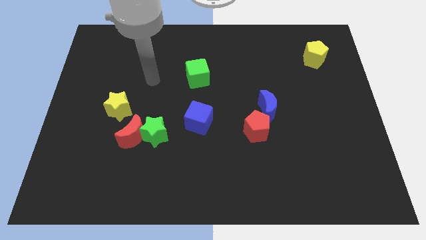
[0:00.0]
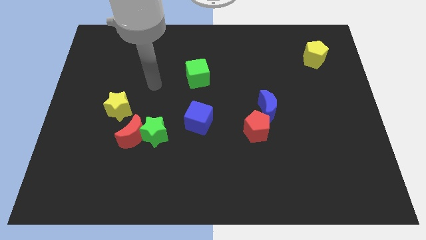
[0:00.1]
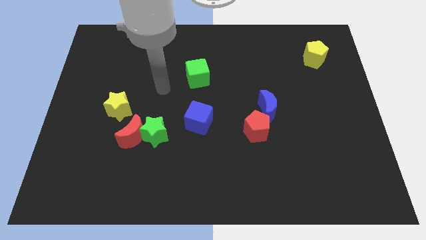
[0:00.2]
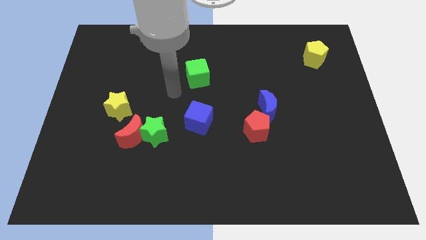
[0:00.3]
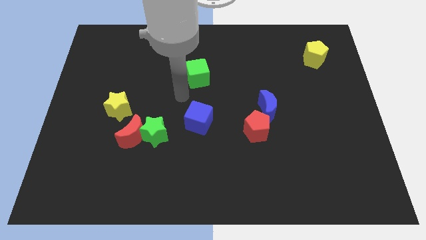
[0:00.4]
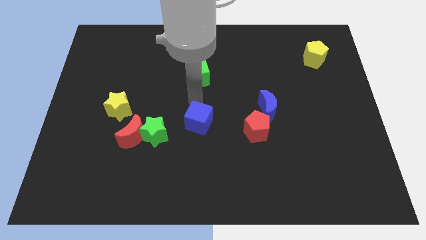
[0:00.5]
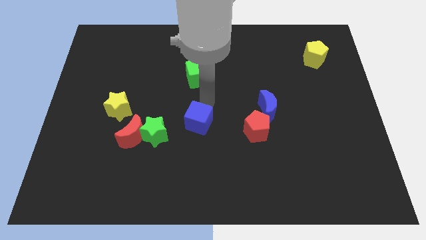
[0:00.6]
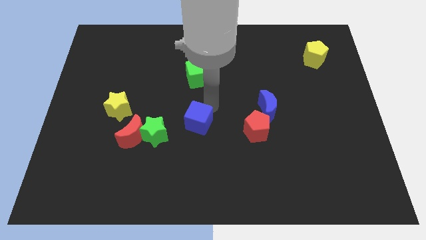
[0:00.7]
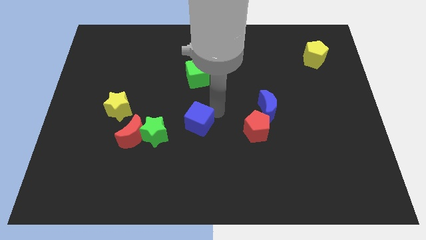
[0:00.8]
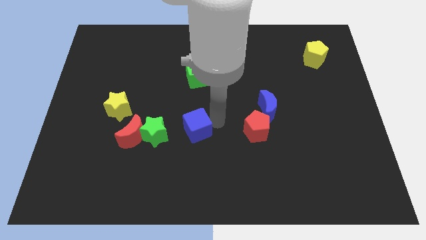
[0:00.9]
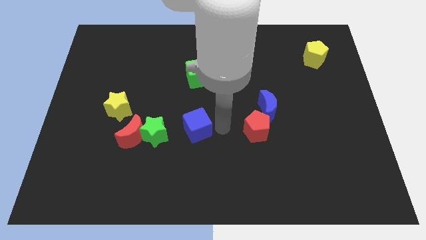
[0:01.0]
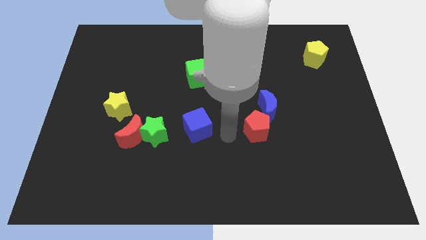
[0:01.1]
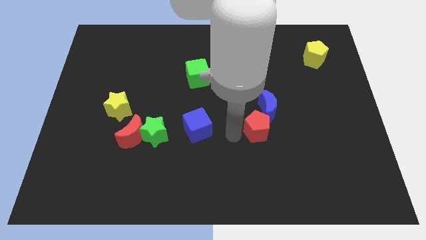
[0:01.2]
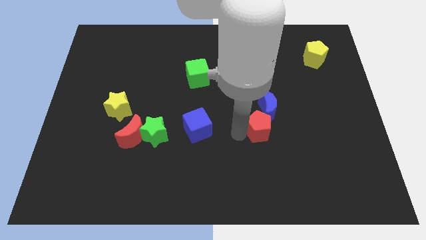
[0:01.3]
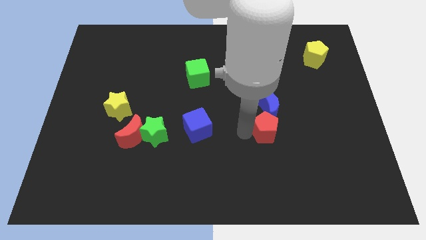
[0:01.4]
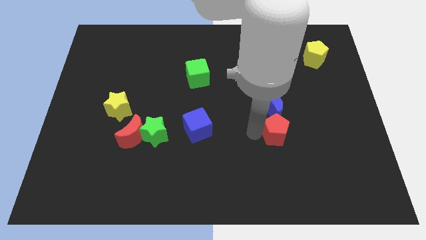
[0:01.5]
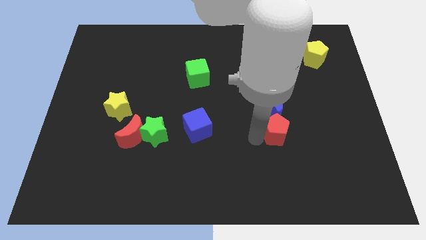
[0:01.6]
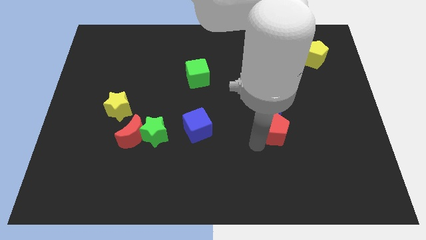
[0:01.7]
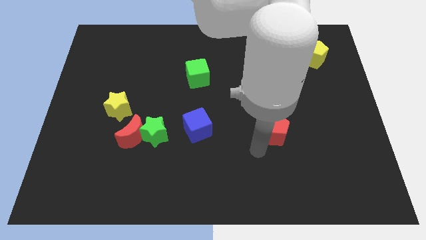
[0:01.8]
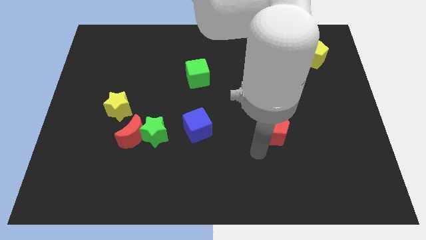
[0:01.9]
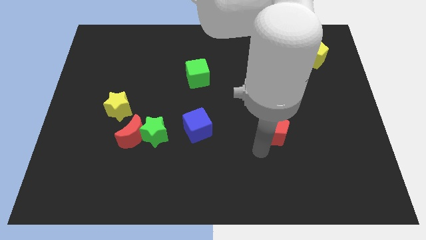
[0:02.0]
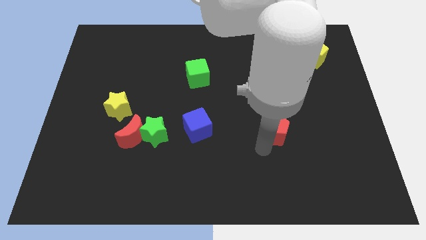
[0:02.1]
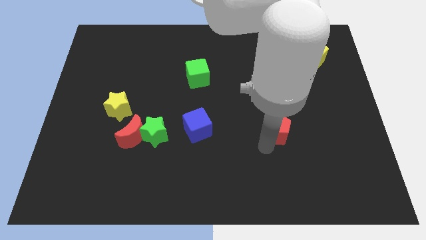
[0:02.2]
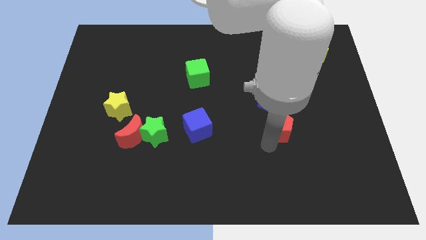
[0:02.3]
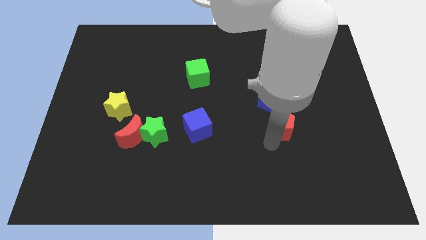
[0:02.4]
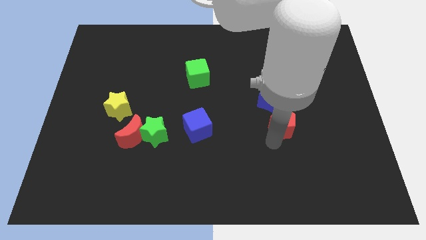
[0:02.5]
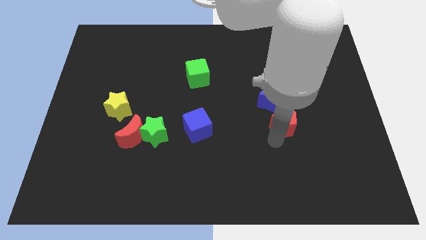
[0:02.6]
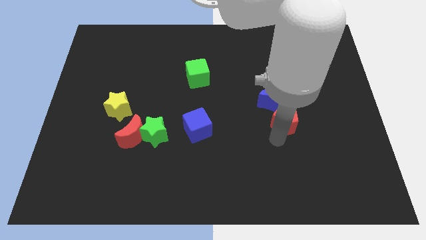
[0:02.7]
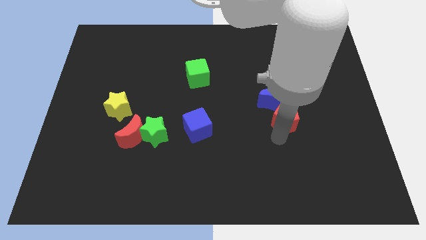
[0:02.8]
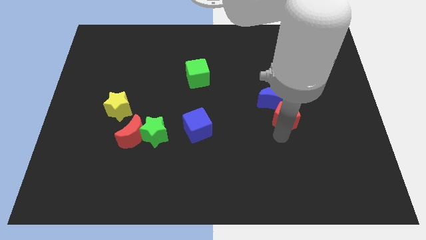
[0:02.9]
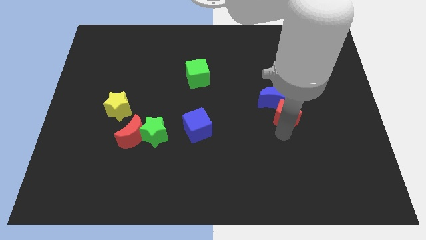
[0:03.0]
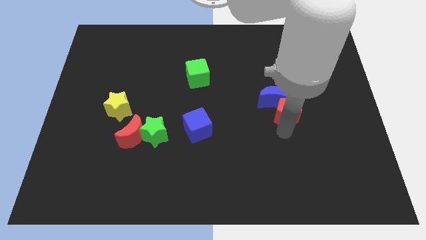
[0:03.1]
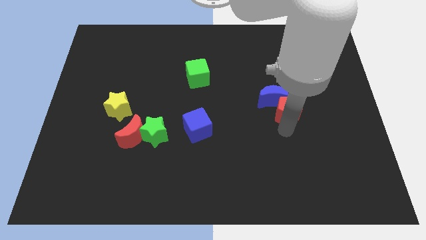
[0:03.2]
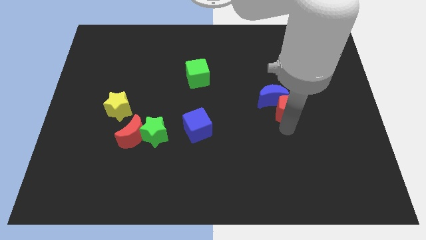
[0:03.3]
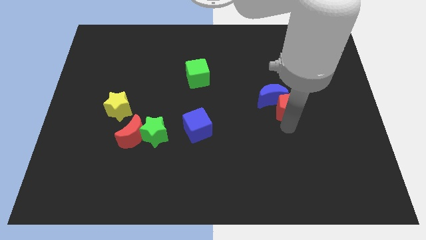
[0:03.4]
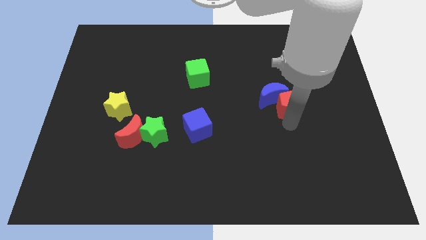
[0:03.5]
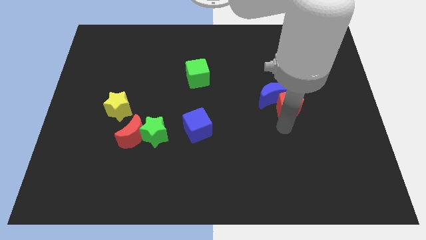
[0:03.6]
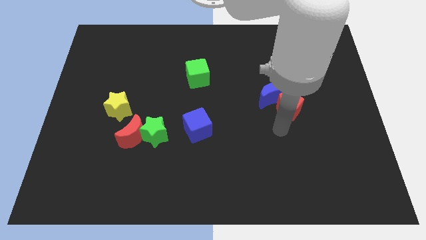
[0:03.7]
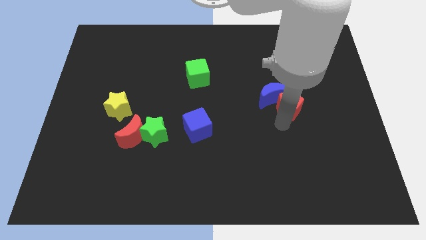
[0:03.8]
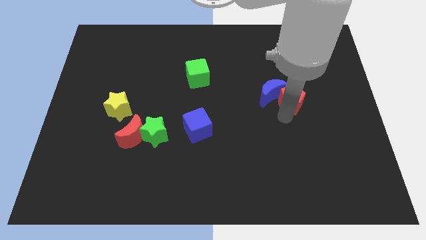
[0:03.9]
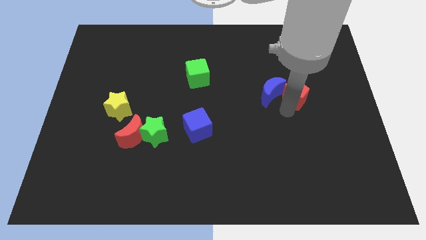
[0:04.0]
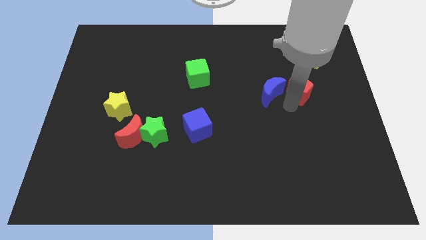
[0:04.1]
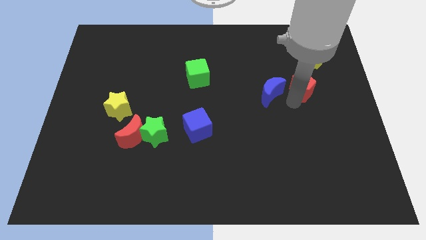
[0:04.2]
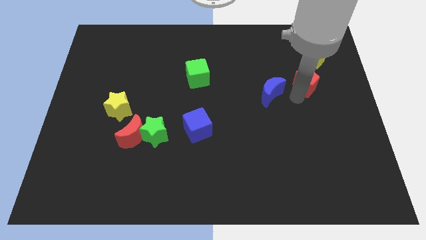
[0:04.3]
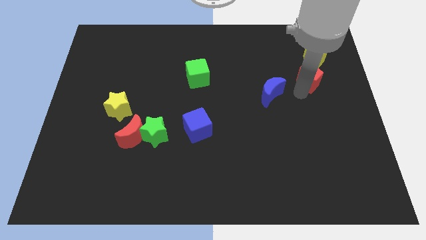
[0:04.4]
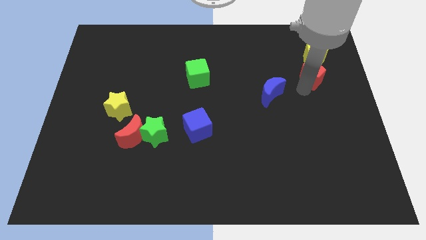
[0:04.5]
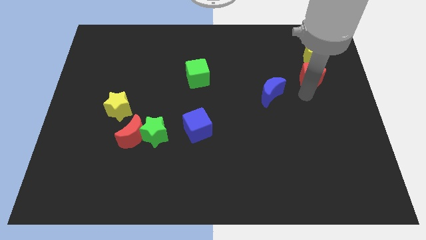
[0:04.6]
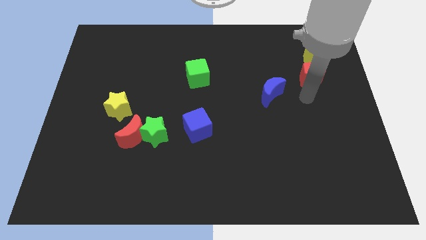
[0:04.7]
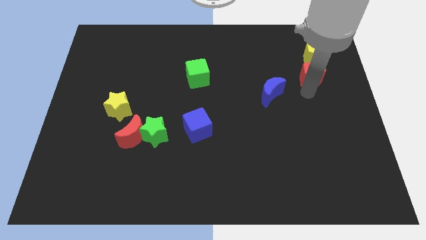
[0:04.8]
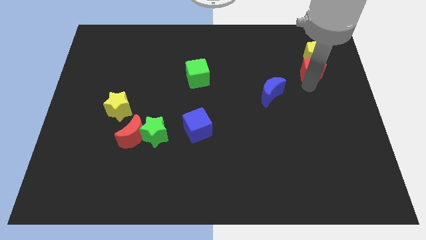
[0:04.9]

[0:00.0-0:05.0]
slide the red pentagon next to the yellow pentagon

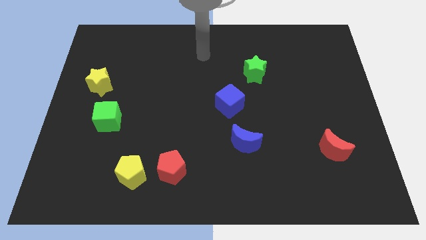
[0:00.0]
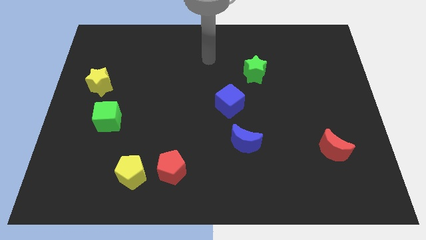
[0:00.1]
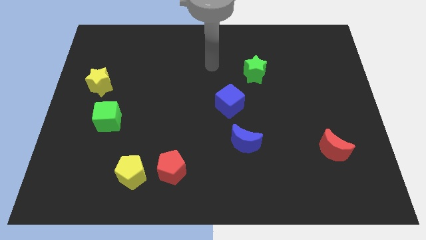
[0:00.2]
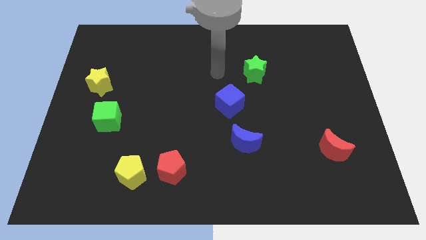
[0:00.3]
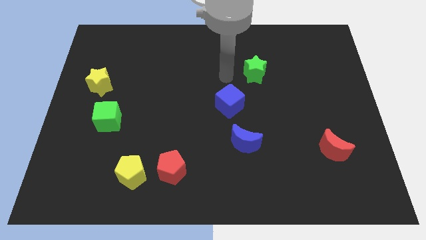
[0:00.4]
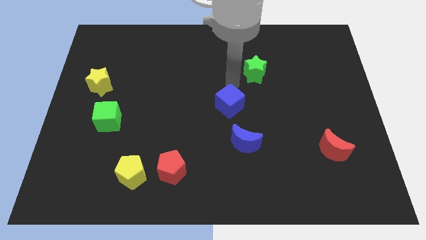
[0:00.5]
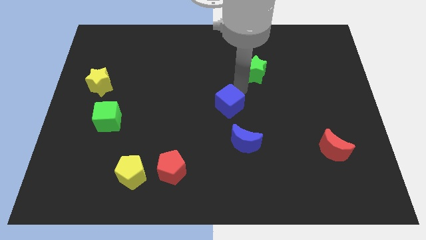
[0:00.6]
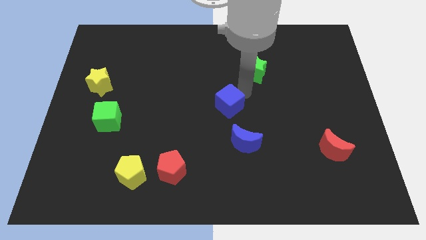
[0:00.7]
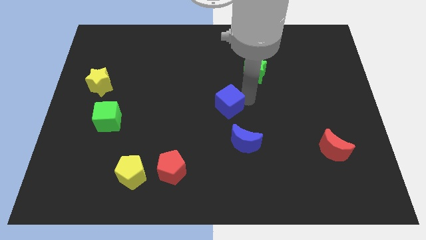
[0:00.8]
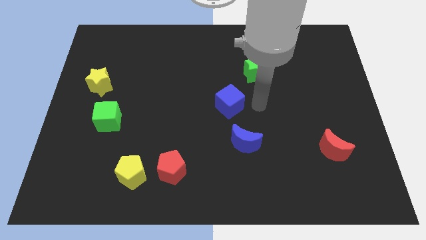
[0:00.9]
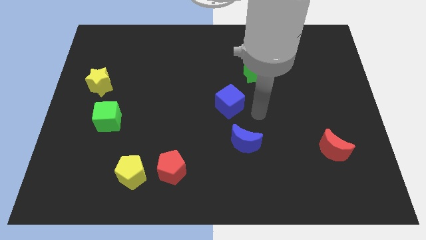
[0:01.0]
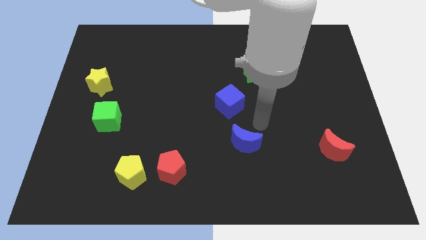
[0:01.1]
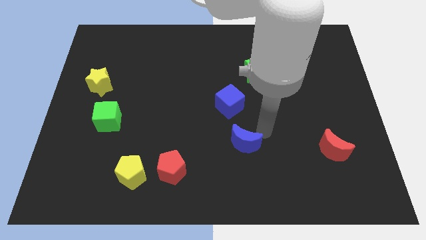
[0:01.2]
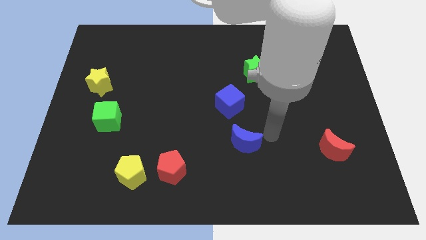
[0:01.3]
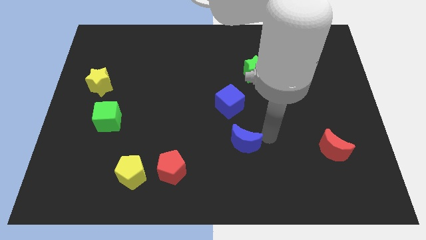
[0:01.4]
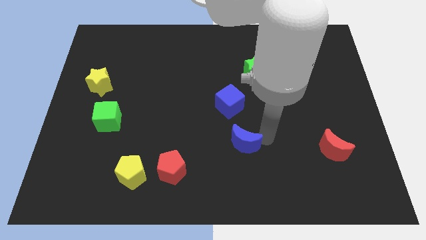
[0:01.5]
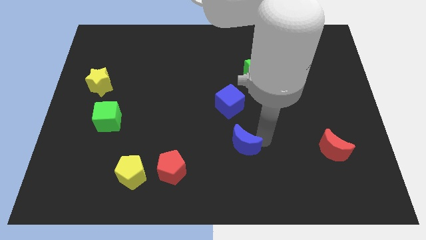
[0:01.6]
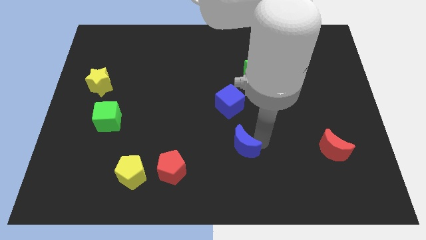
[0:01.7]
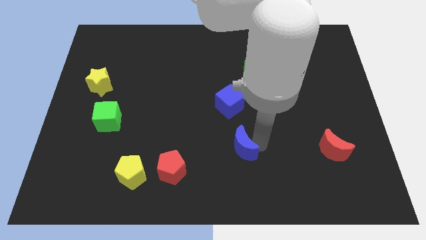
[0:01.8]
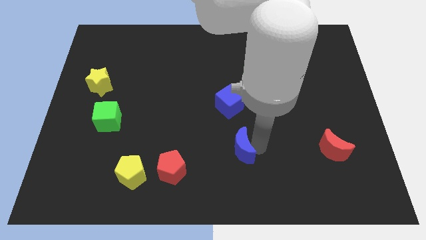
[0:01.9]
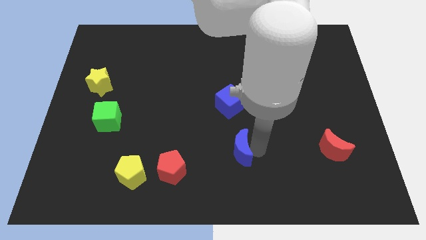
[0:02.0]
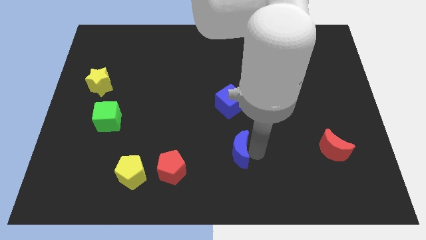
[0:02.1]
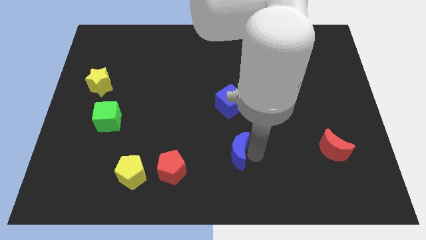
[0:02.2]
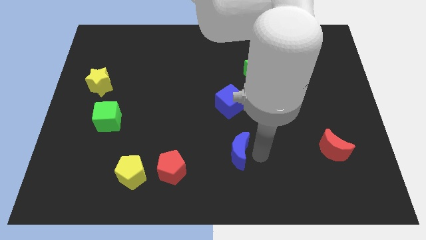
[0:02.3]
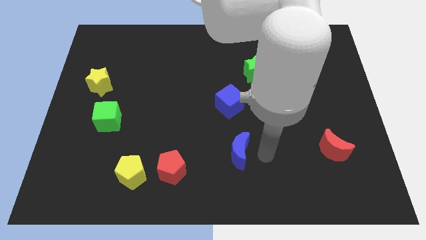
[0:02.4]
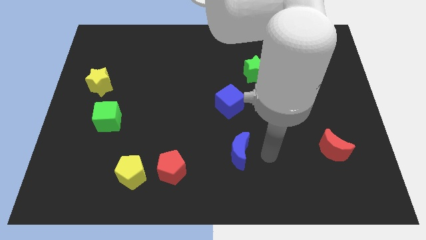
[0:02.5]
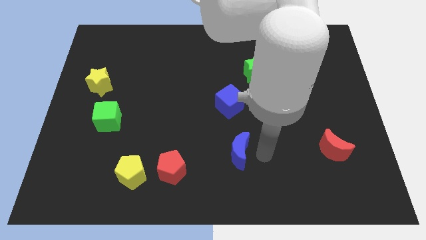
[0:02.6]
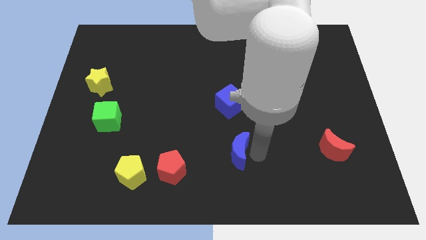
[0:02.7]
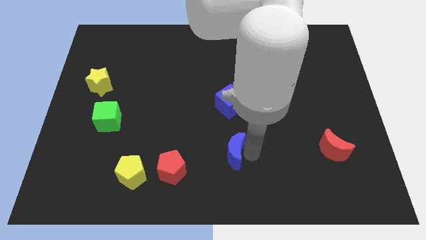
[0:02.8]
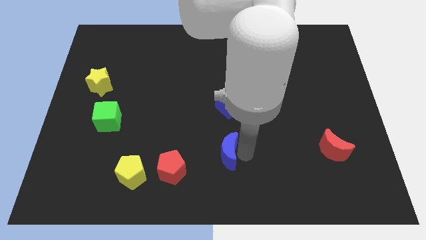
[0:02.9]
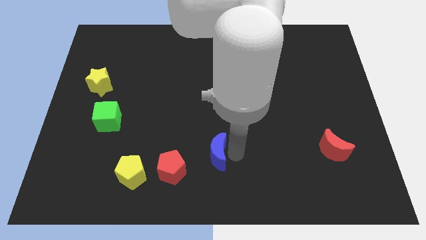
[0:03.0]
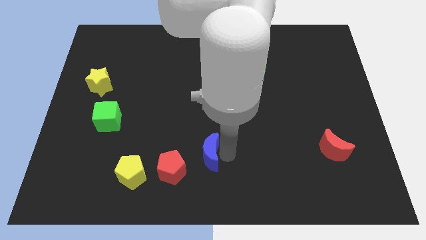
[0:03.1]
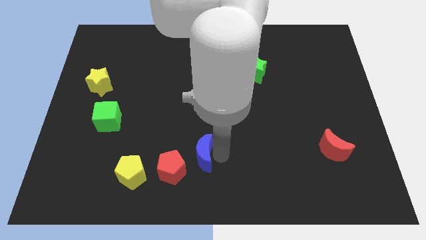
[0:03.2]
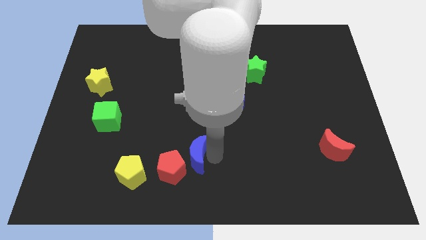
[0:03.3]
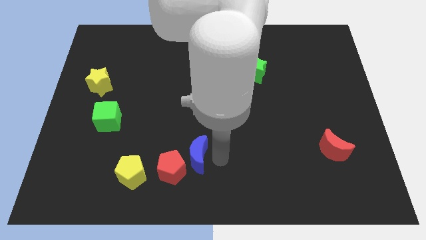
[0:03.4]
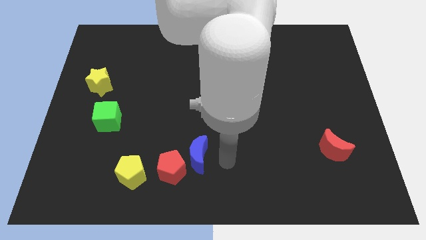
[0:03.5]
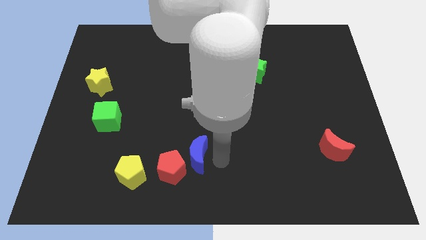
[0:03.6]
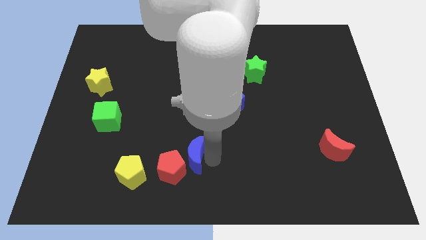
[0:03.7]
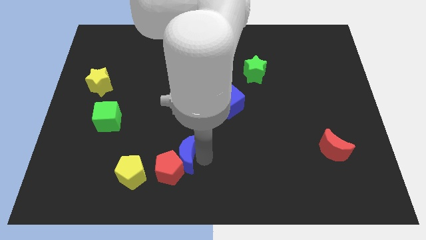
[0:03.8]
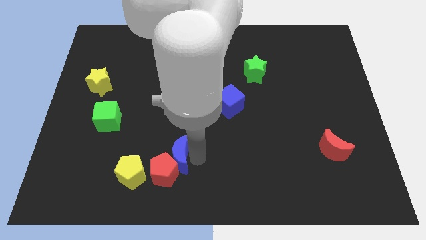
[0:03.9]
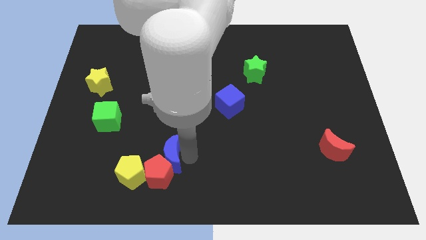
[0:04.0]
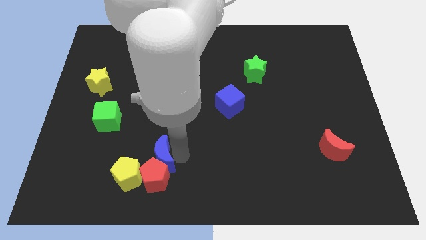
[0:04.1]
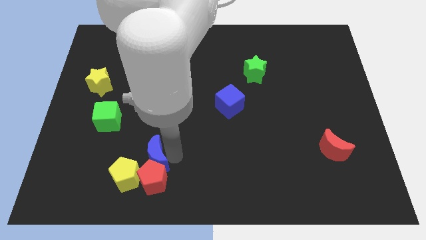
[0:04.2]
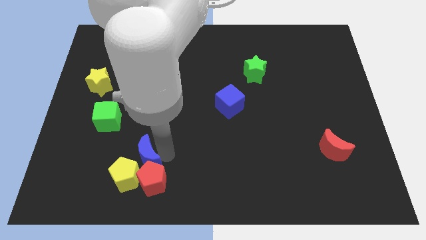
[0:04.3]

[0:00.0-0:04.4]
push the blue moon close to the yellow pentagon
